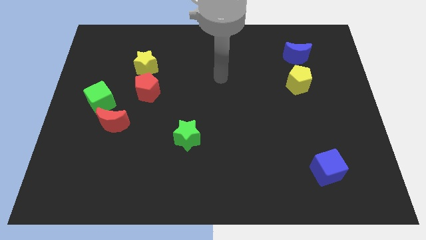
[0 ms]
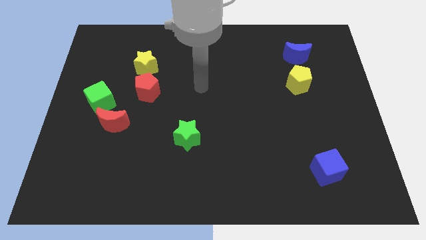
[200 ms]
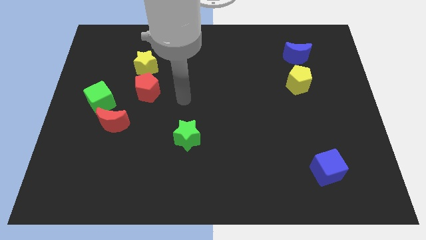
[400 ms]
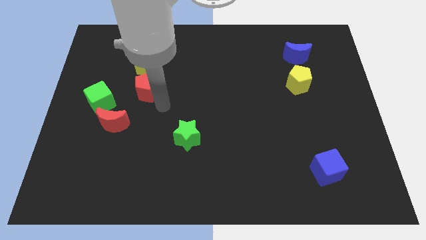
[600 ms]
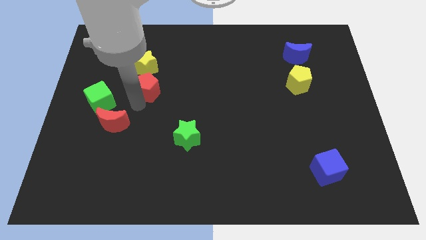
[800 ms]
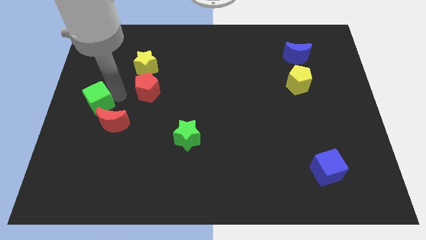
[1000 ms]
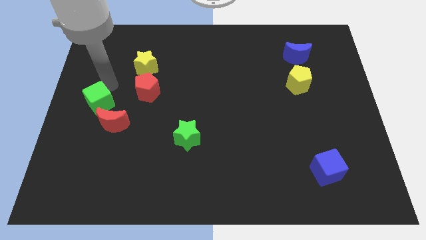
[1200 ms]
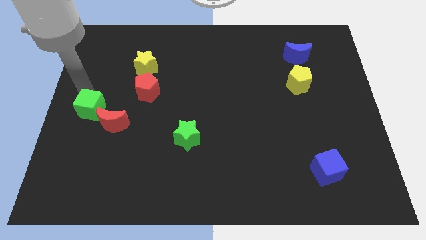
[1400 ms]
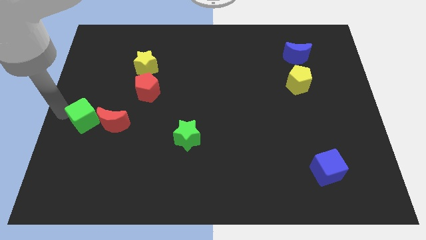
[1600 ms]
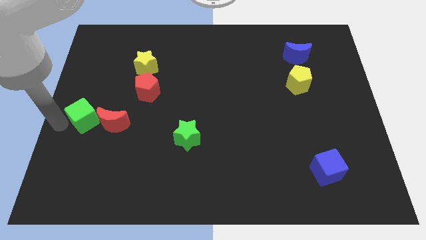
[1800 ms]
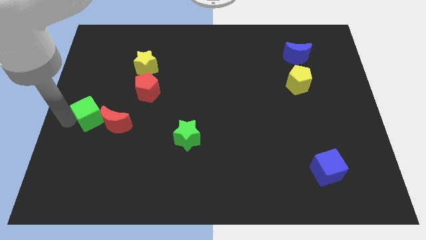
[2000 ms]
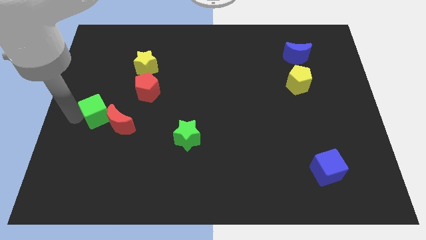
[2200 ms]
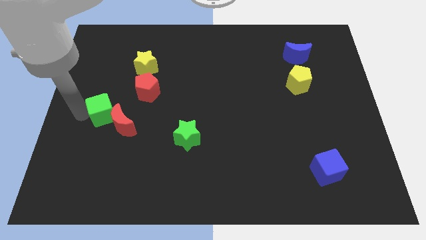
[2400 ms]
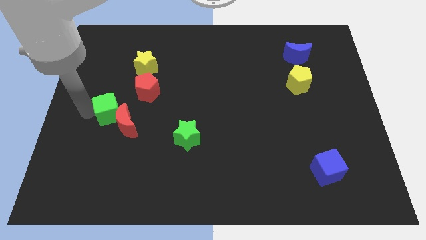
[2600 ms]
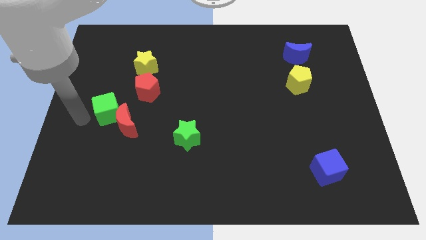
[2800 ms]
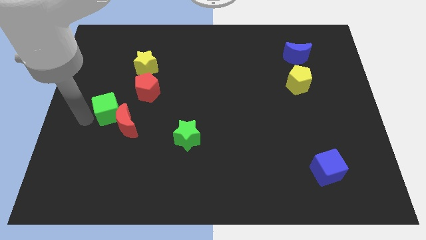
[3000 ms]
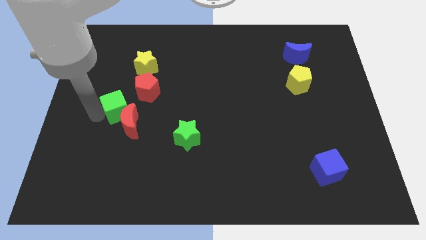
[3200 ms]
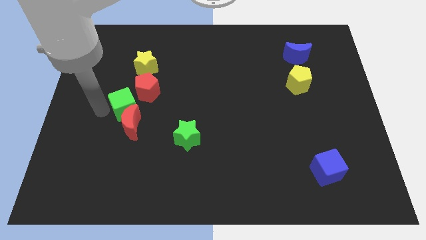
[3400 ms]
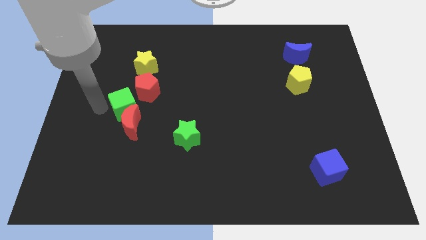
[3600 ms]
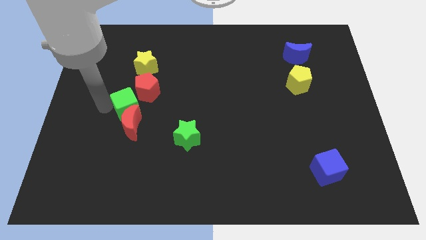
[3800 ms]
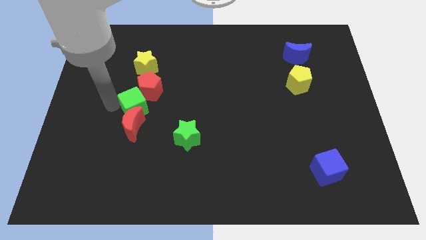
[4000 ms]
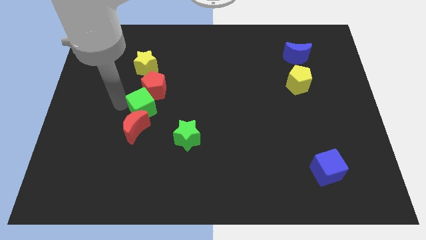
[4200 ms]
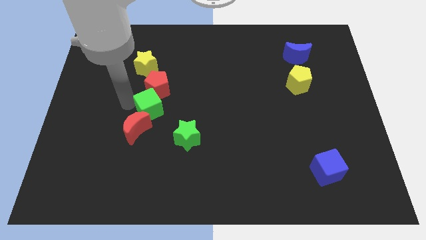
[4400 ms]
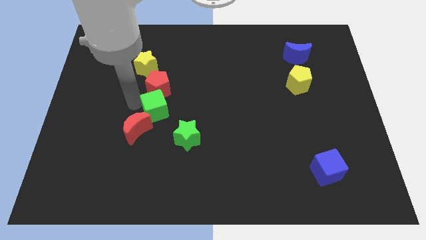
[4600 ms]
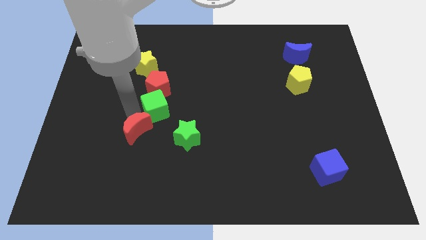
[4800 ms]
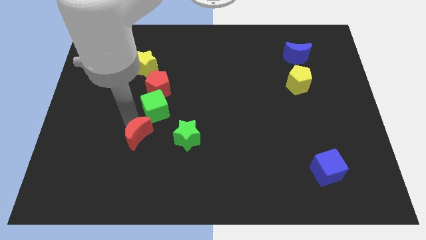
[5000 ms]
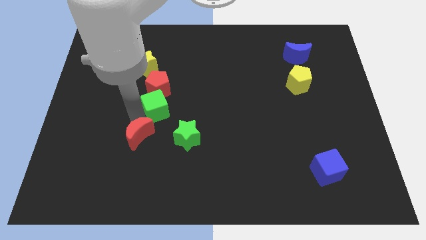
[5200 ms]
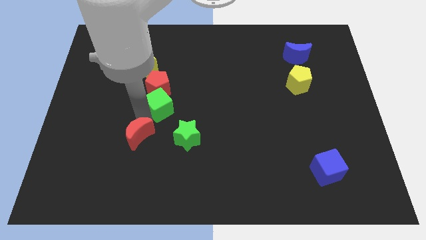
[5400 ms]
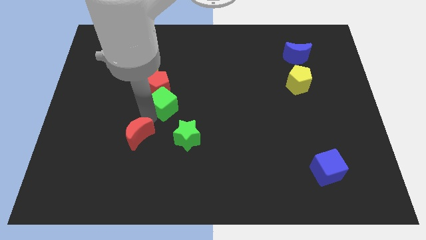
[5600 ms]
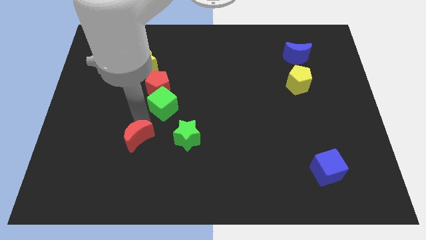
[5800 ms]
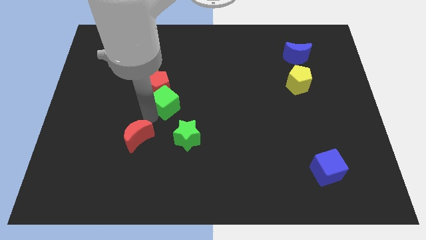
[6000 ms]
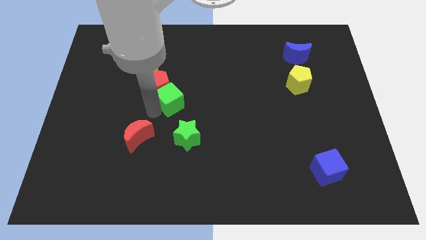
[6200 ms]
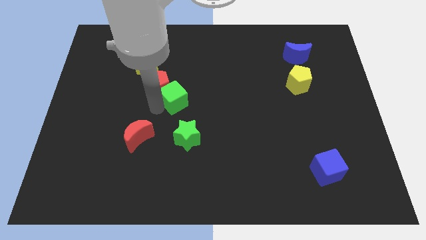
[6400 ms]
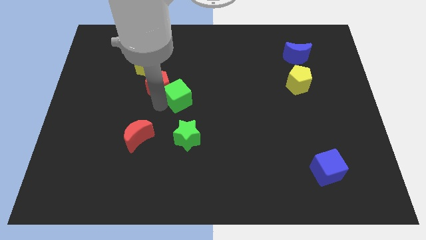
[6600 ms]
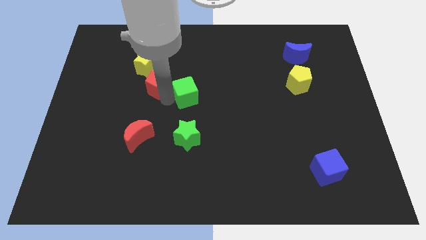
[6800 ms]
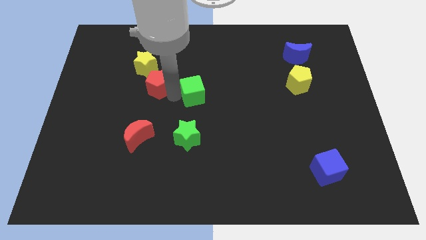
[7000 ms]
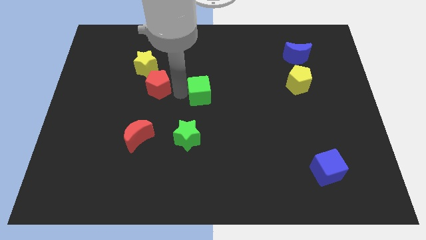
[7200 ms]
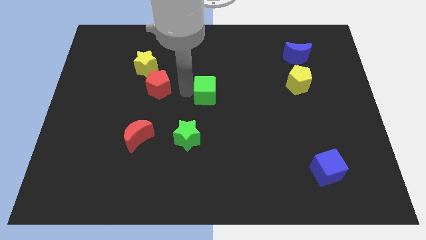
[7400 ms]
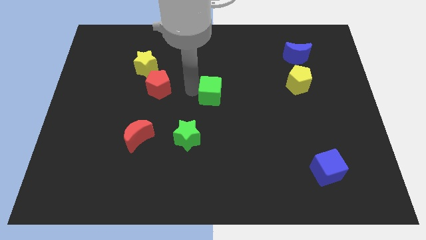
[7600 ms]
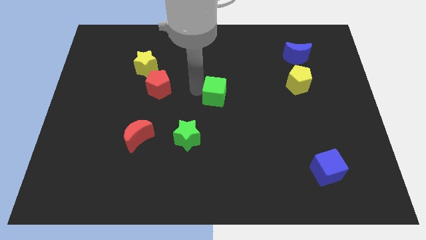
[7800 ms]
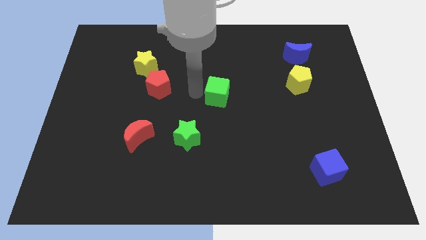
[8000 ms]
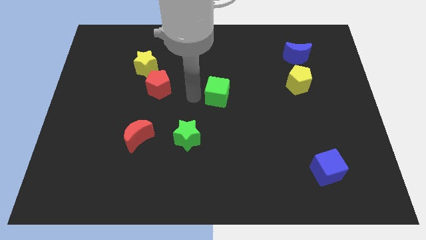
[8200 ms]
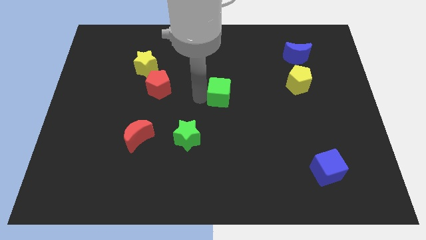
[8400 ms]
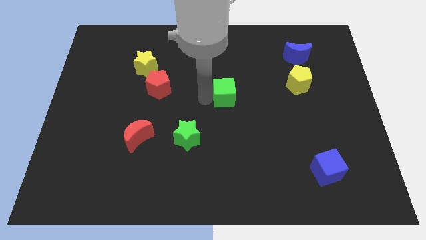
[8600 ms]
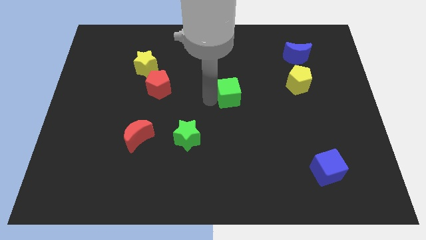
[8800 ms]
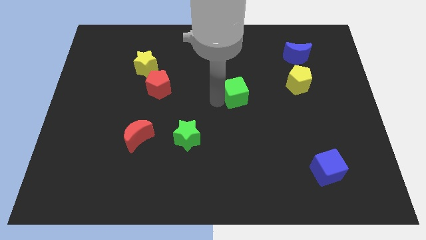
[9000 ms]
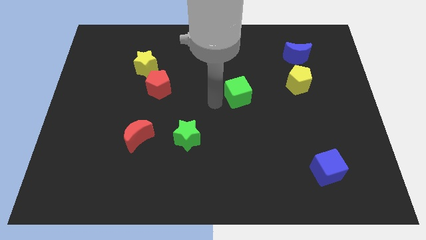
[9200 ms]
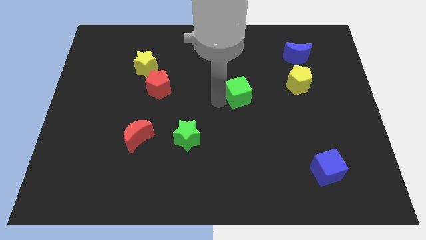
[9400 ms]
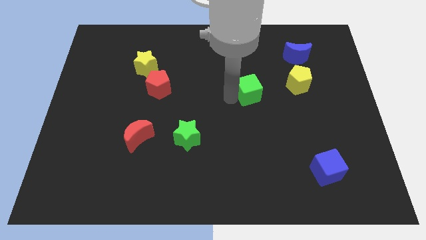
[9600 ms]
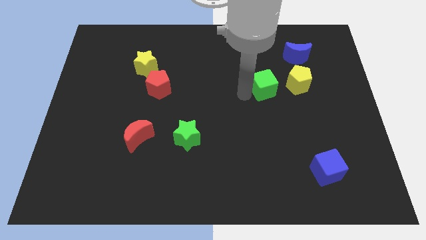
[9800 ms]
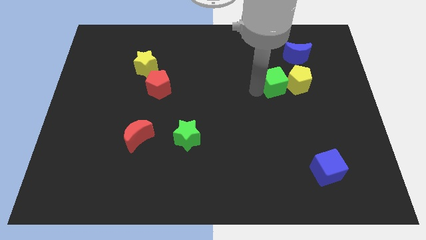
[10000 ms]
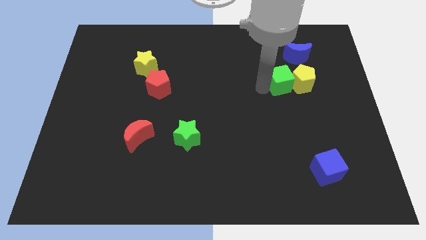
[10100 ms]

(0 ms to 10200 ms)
slide the green cube towards the yellow pentagon

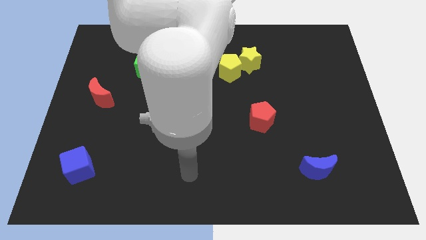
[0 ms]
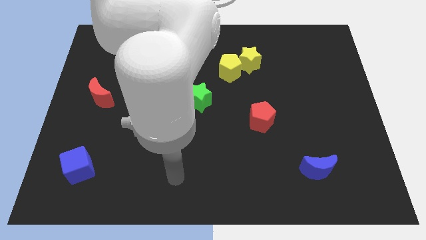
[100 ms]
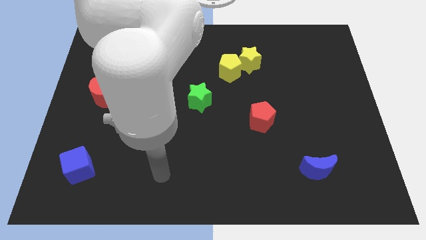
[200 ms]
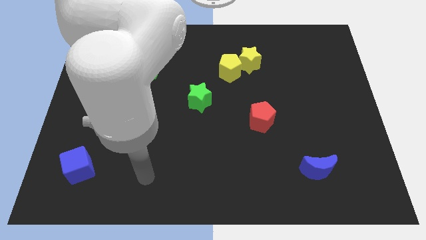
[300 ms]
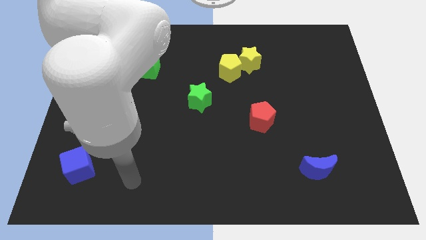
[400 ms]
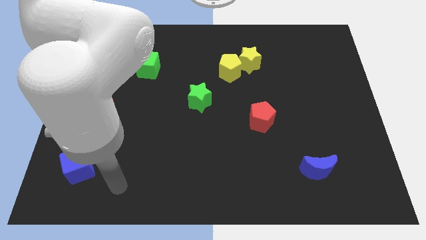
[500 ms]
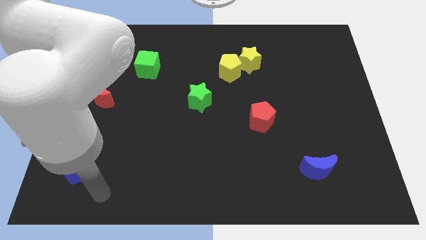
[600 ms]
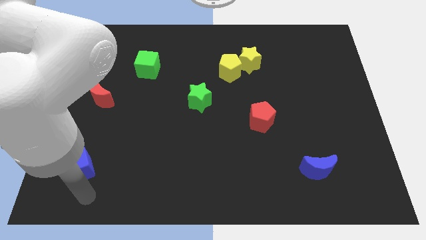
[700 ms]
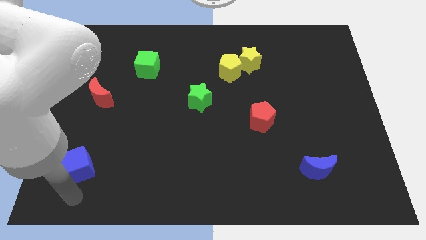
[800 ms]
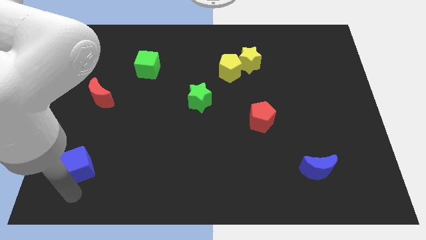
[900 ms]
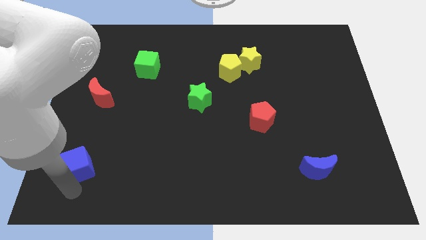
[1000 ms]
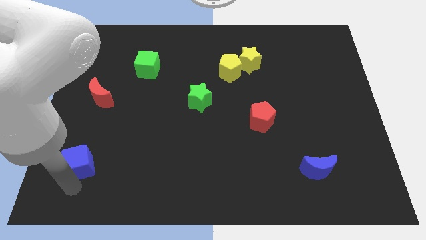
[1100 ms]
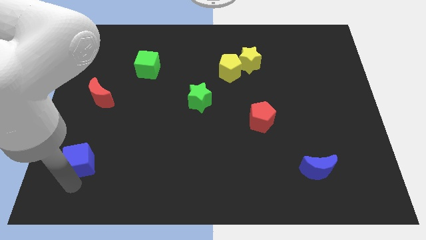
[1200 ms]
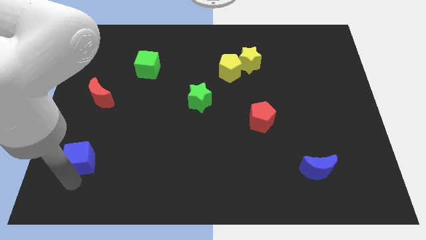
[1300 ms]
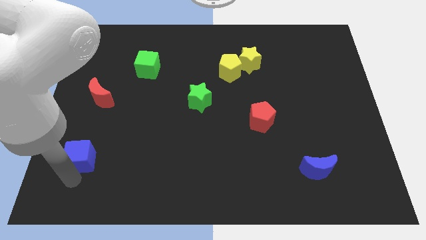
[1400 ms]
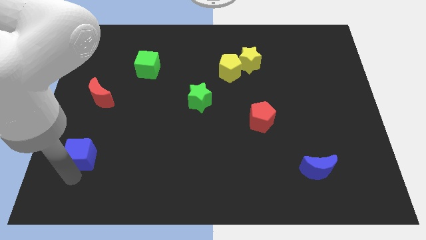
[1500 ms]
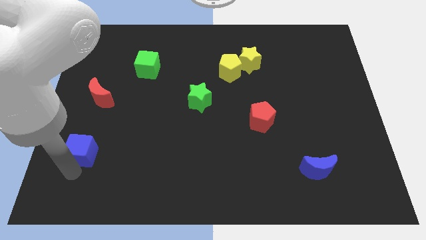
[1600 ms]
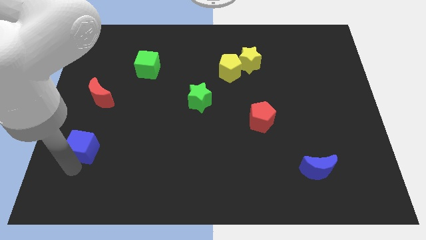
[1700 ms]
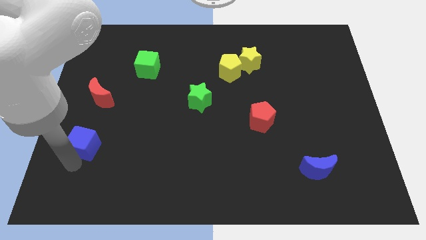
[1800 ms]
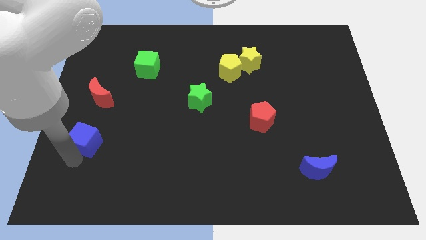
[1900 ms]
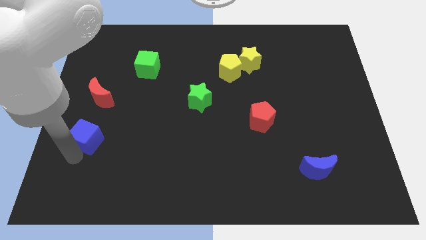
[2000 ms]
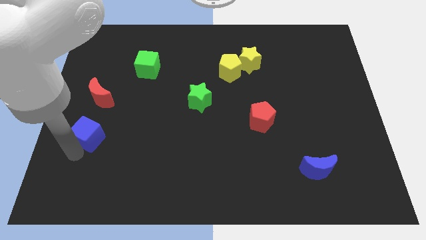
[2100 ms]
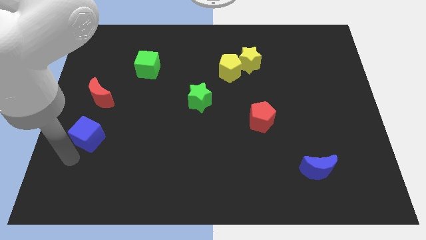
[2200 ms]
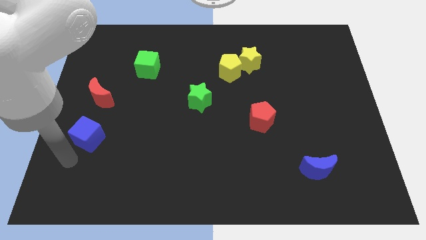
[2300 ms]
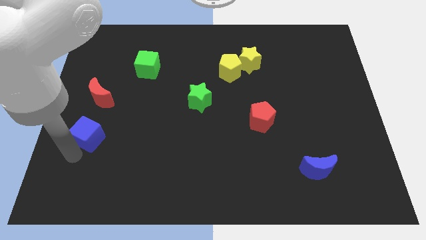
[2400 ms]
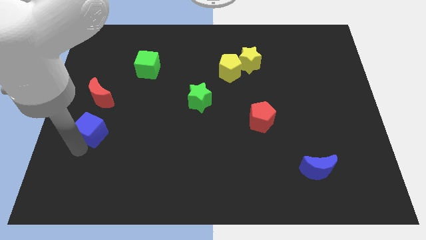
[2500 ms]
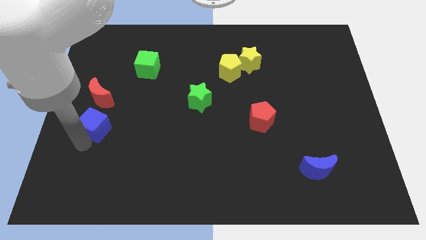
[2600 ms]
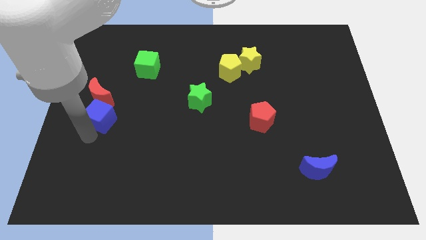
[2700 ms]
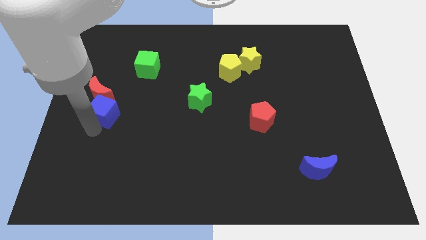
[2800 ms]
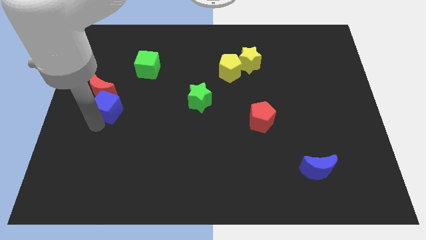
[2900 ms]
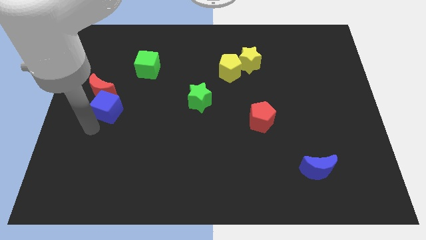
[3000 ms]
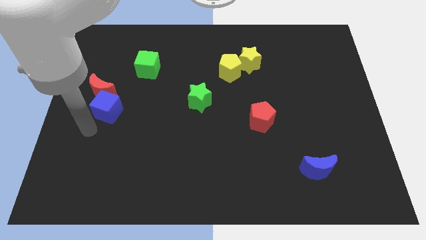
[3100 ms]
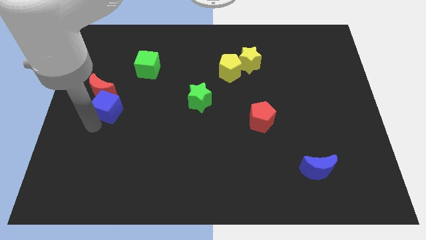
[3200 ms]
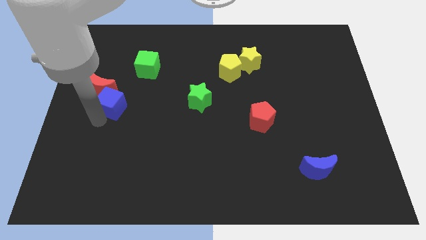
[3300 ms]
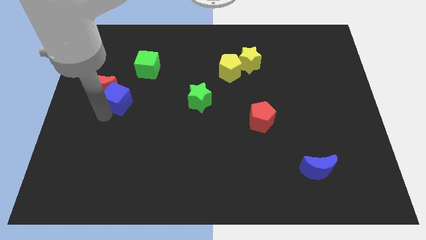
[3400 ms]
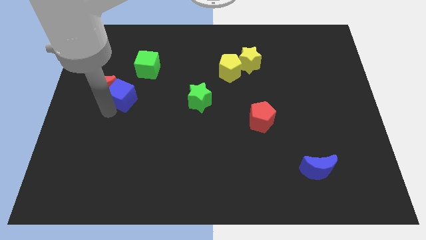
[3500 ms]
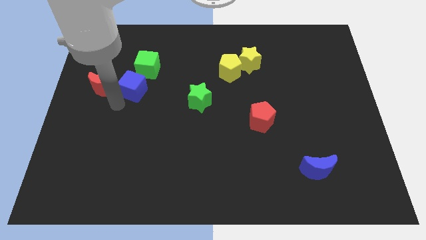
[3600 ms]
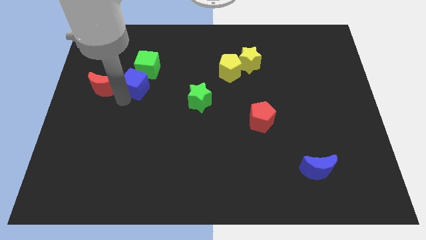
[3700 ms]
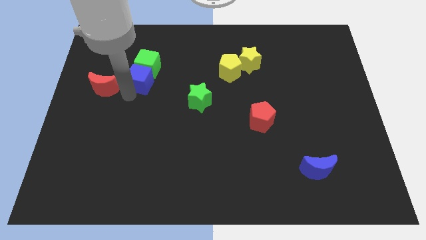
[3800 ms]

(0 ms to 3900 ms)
slide the blue cube close to the green cube
